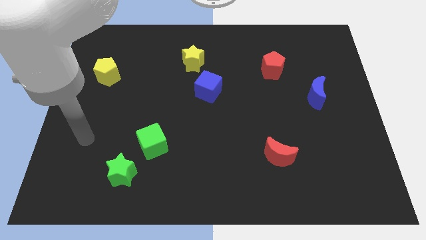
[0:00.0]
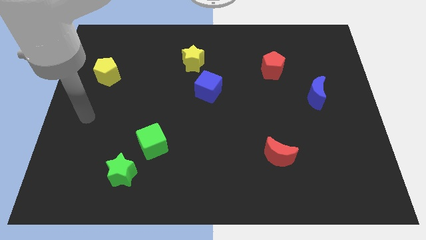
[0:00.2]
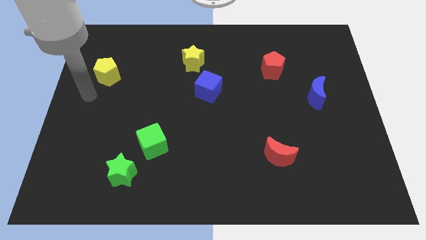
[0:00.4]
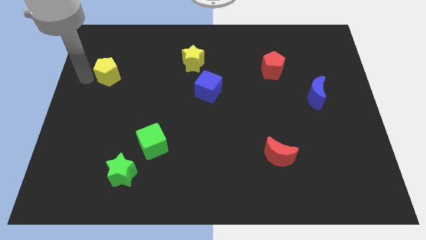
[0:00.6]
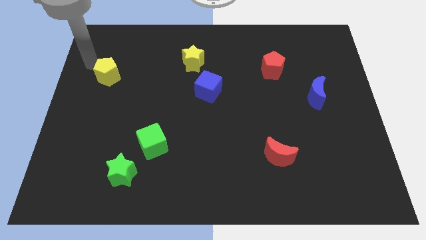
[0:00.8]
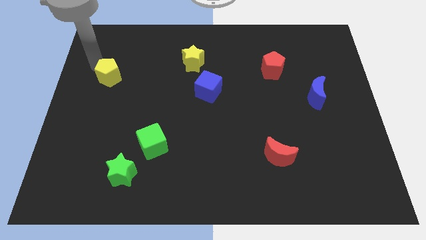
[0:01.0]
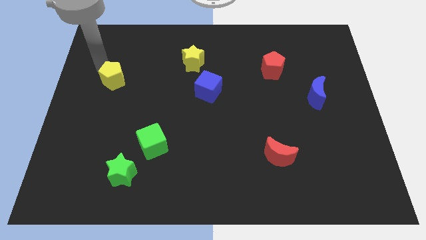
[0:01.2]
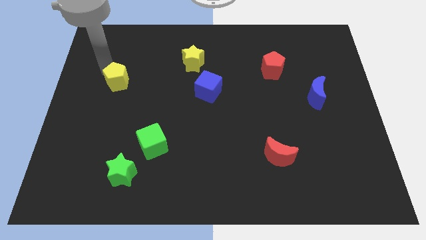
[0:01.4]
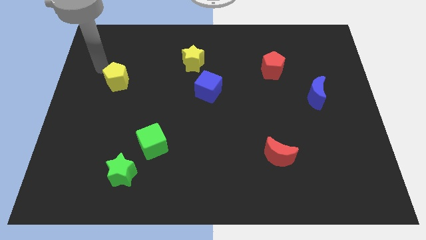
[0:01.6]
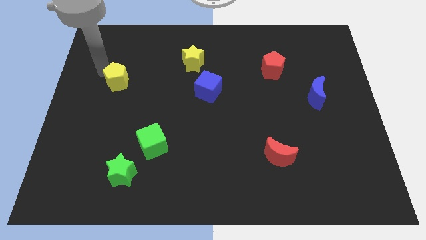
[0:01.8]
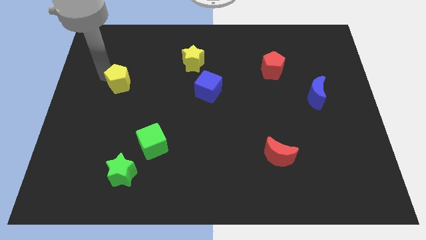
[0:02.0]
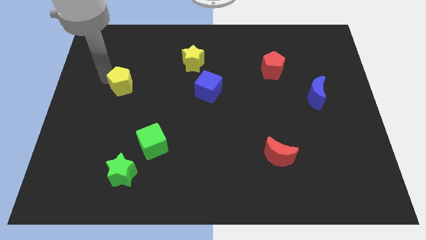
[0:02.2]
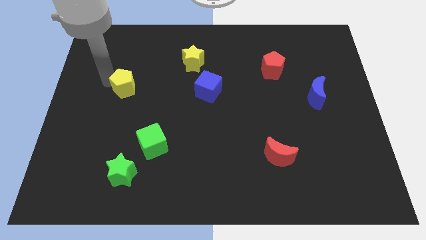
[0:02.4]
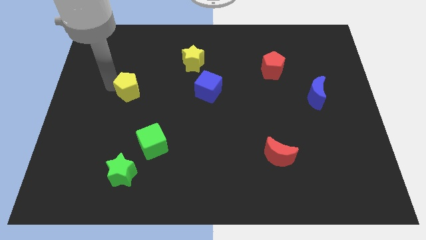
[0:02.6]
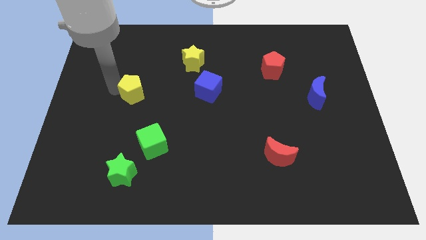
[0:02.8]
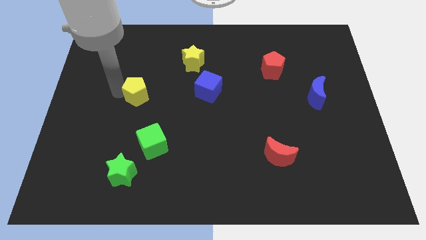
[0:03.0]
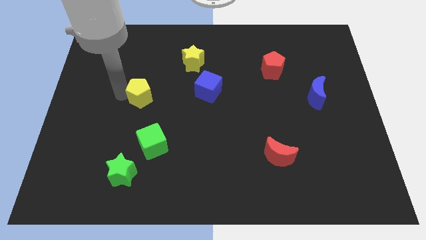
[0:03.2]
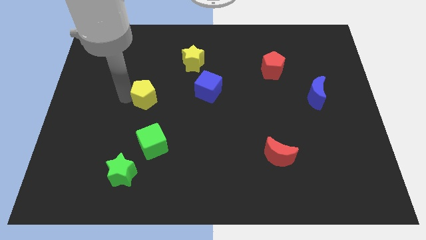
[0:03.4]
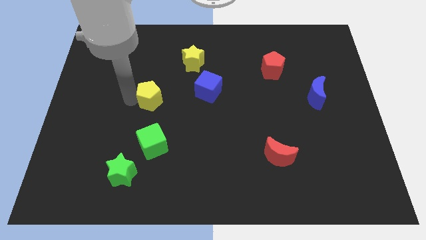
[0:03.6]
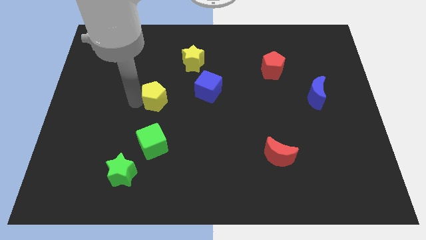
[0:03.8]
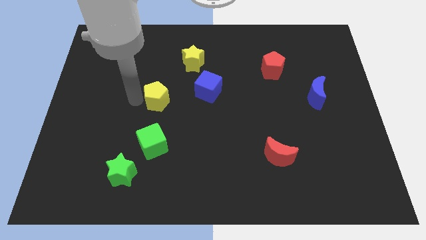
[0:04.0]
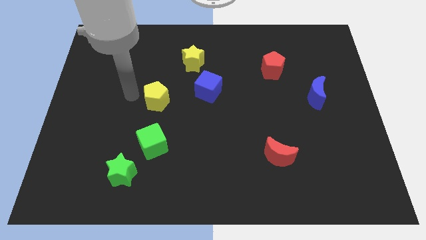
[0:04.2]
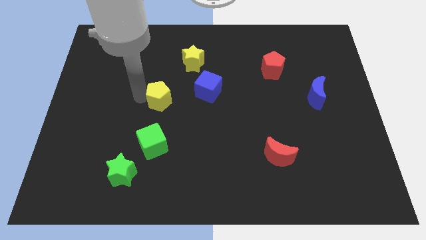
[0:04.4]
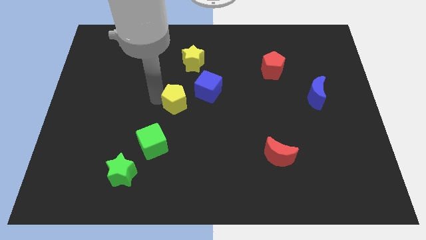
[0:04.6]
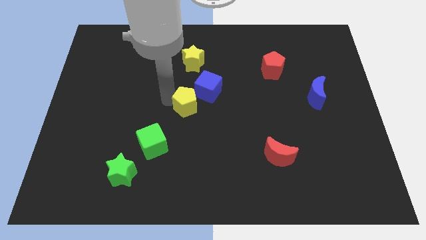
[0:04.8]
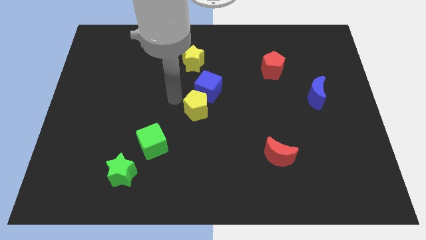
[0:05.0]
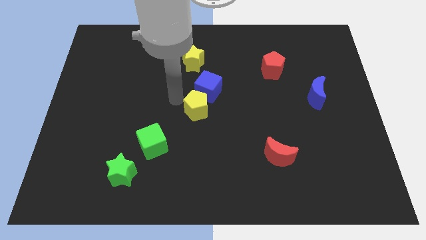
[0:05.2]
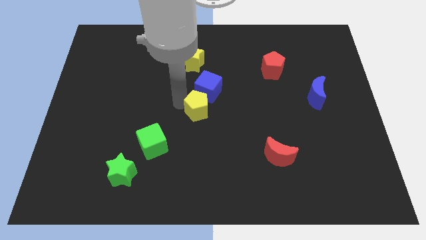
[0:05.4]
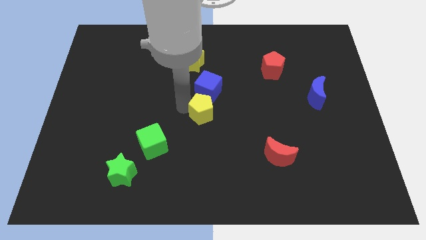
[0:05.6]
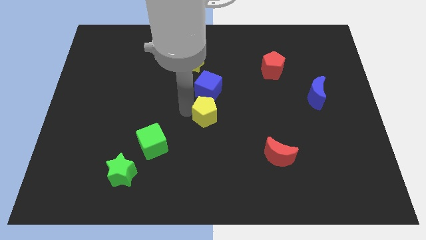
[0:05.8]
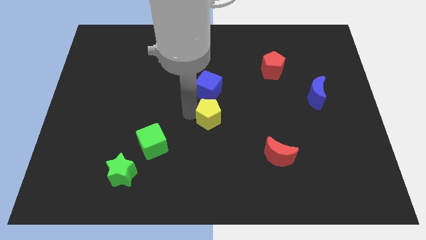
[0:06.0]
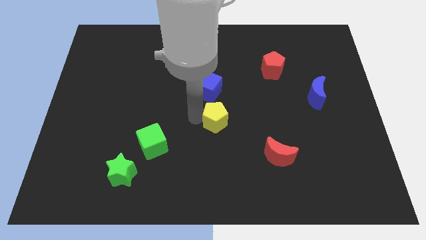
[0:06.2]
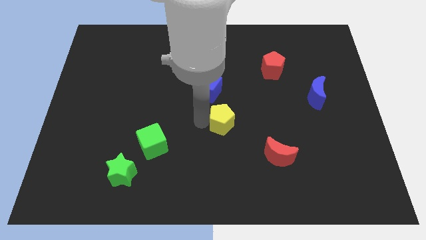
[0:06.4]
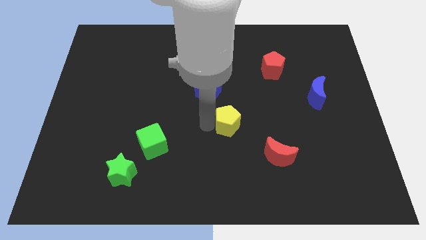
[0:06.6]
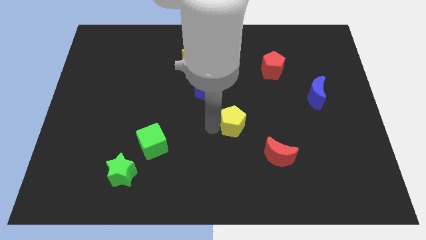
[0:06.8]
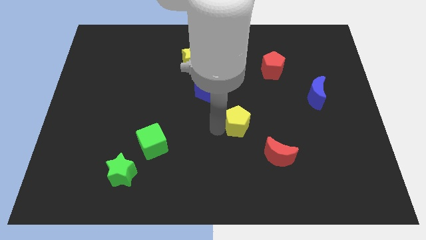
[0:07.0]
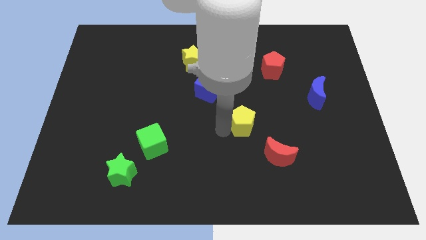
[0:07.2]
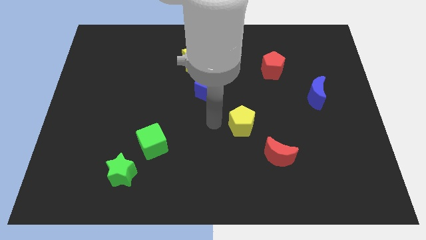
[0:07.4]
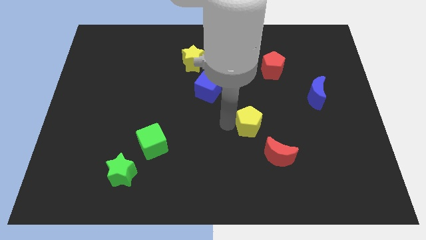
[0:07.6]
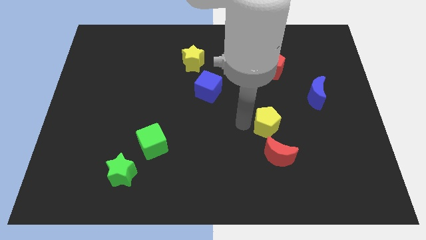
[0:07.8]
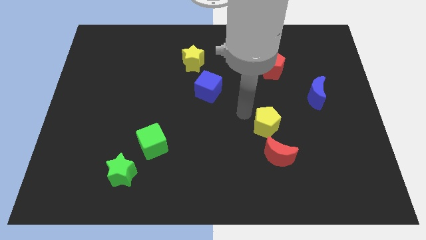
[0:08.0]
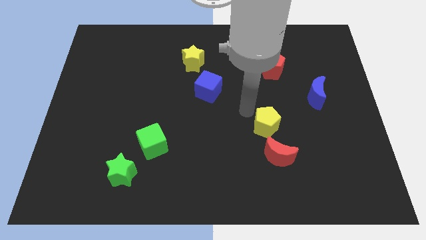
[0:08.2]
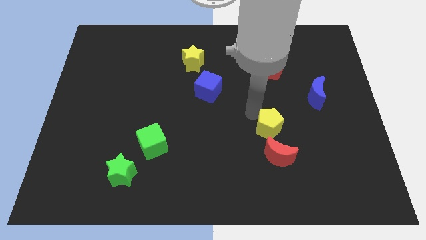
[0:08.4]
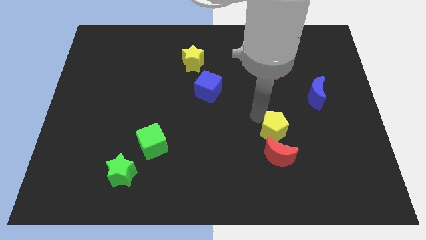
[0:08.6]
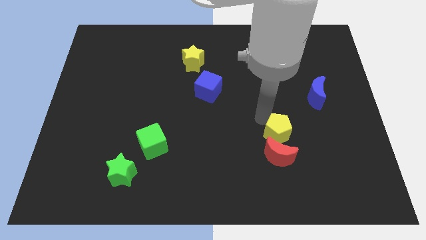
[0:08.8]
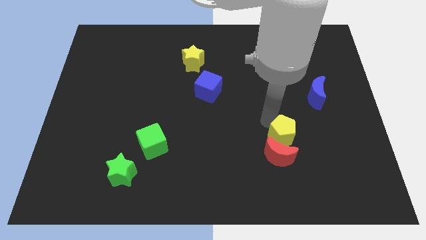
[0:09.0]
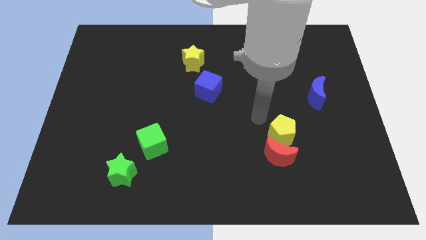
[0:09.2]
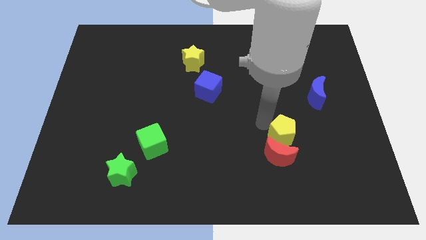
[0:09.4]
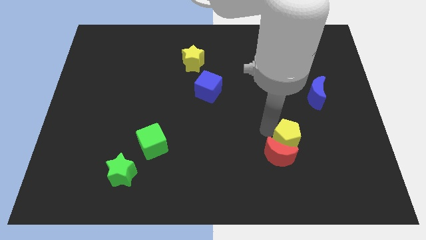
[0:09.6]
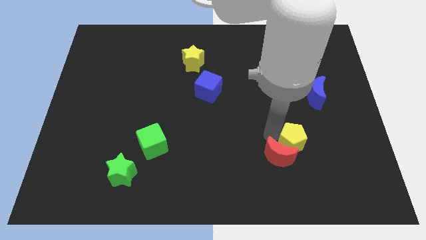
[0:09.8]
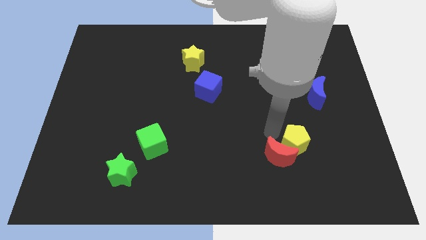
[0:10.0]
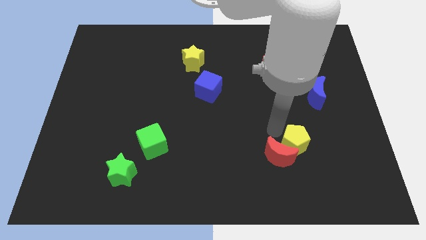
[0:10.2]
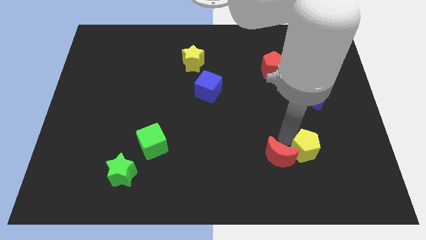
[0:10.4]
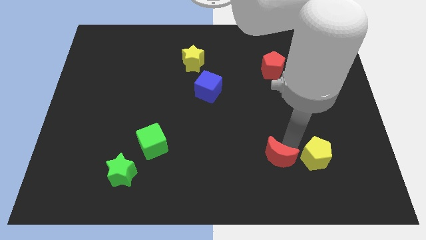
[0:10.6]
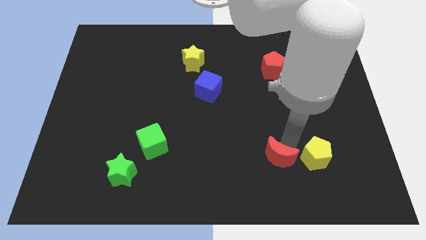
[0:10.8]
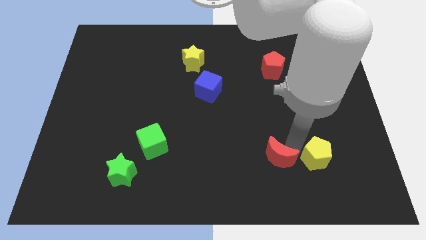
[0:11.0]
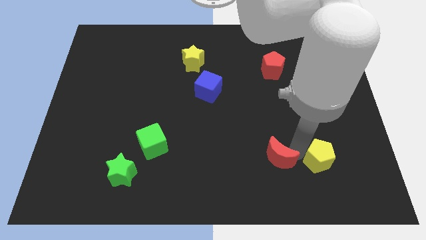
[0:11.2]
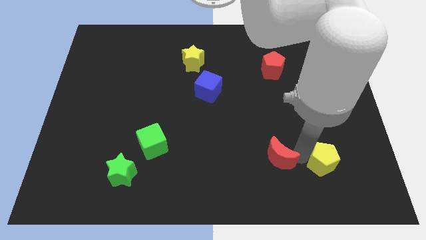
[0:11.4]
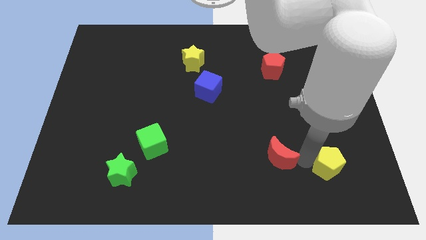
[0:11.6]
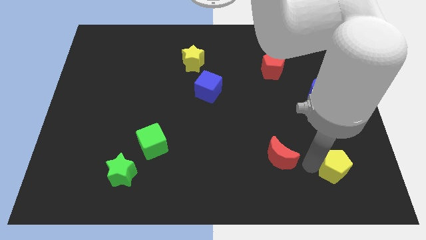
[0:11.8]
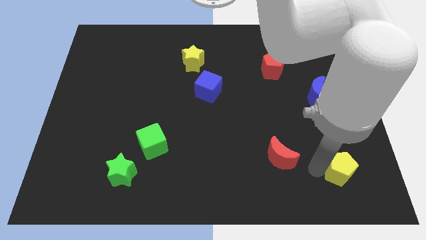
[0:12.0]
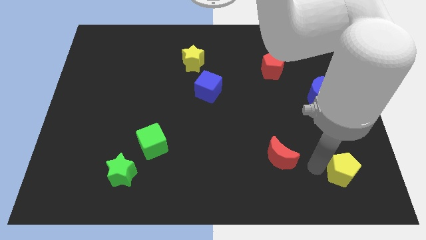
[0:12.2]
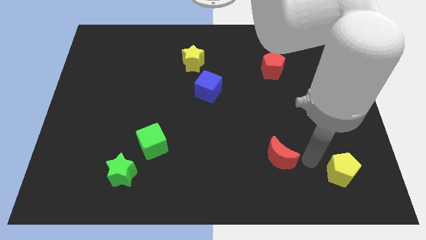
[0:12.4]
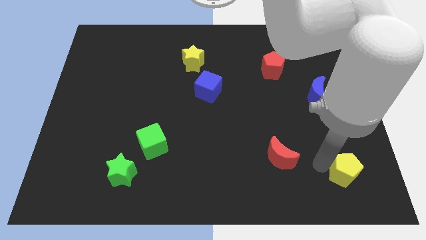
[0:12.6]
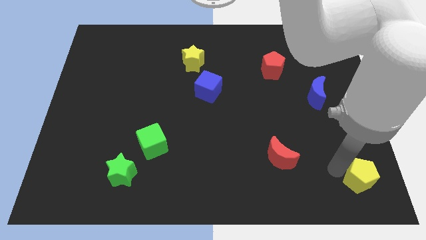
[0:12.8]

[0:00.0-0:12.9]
put the yellow pentagon to the bottom right
